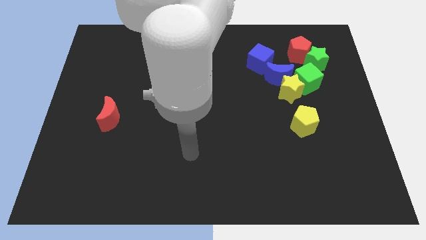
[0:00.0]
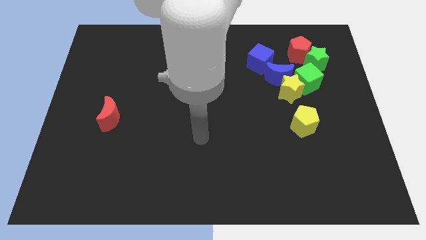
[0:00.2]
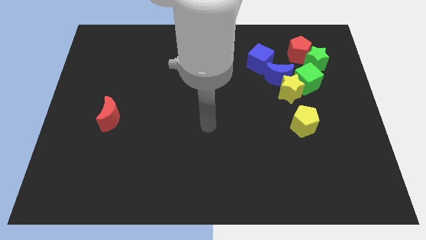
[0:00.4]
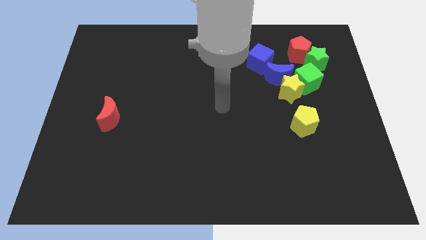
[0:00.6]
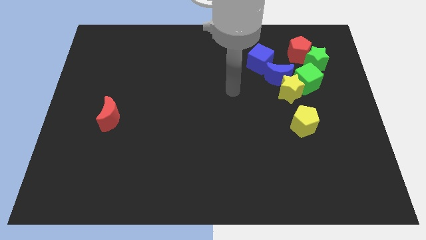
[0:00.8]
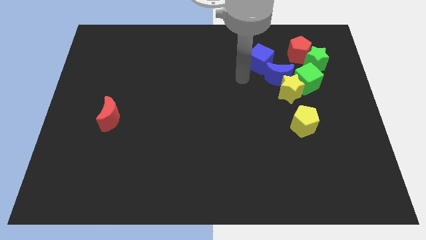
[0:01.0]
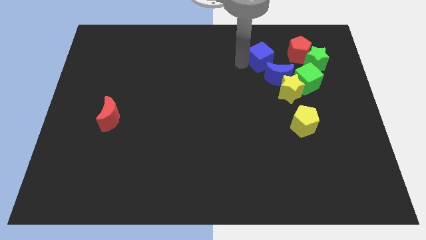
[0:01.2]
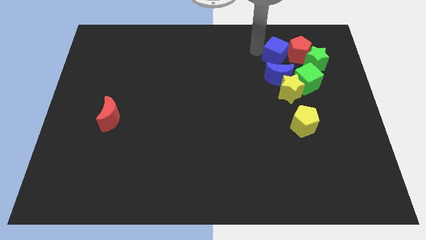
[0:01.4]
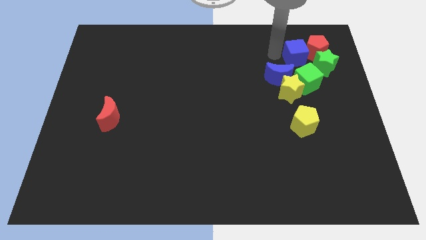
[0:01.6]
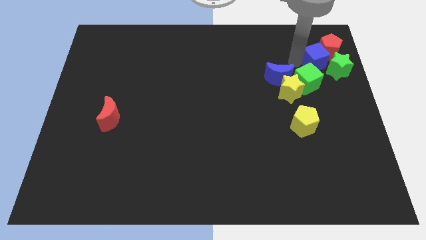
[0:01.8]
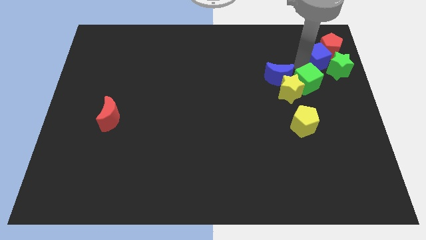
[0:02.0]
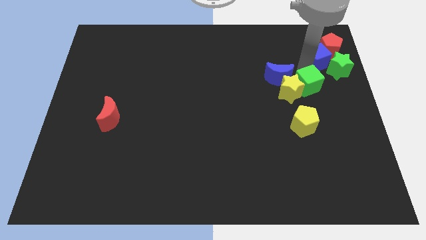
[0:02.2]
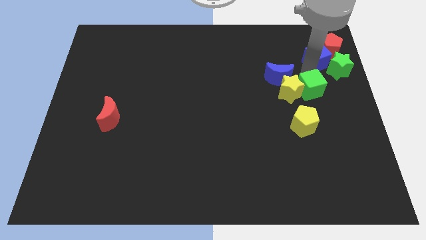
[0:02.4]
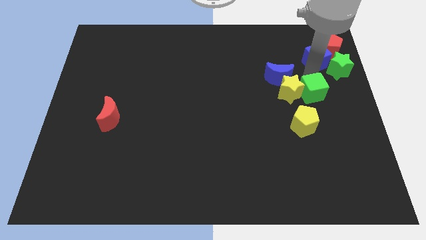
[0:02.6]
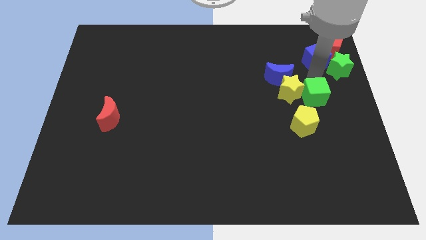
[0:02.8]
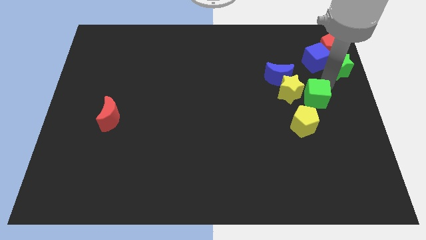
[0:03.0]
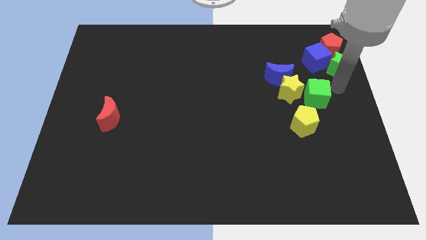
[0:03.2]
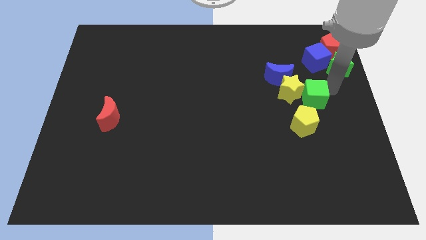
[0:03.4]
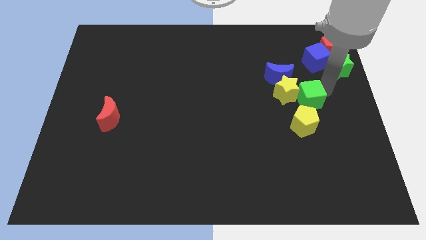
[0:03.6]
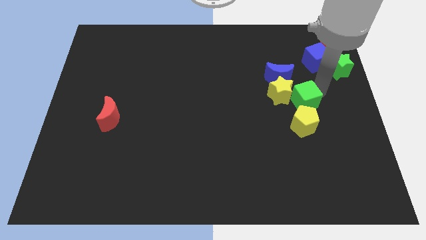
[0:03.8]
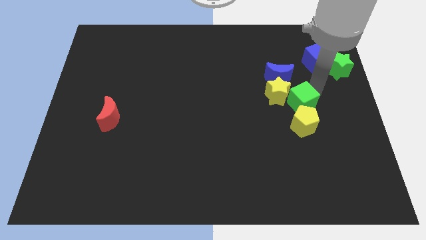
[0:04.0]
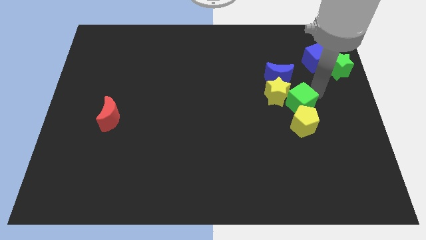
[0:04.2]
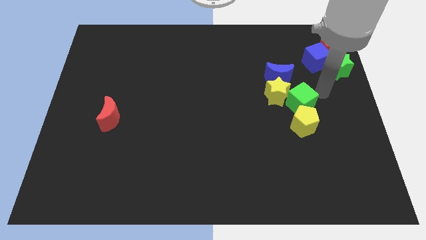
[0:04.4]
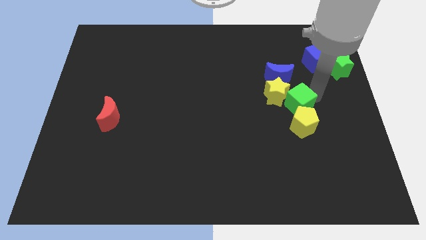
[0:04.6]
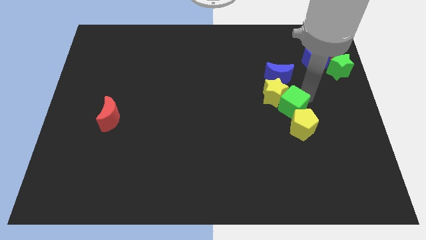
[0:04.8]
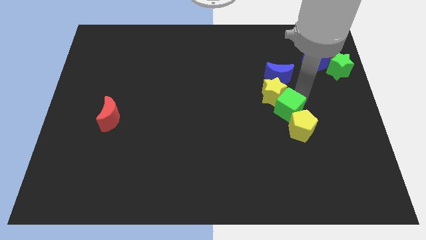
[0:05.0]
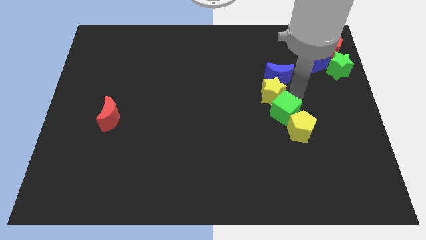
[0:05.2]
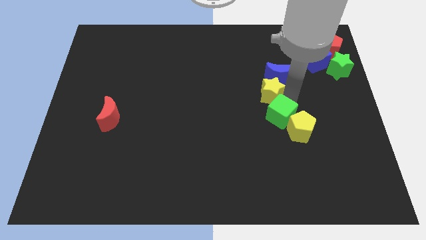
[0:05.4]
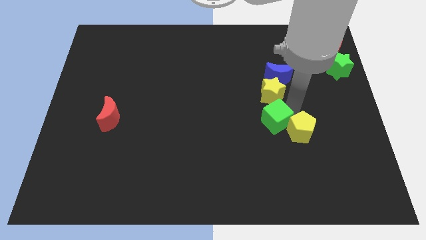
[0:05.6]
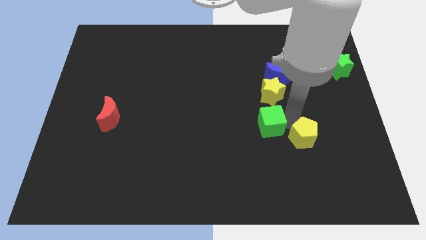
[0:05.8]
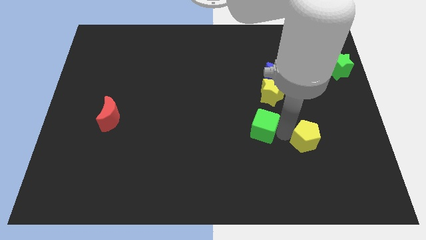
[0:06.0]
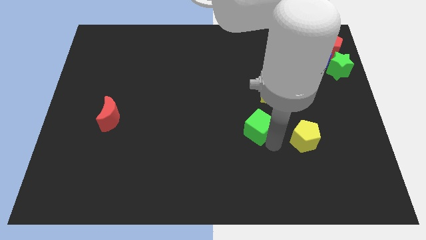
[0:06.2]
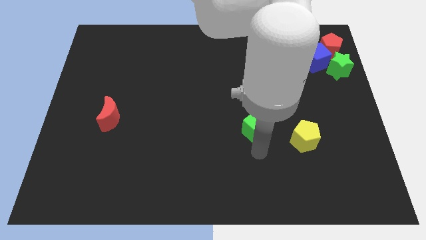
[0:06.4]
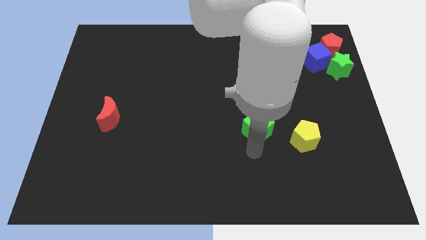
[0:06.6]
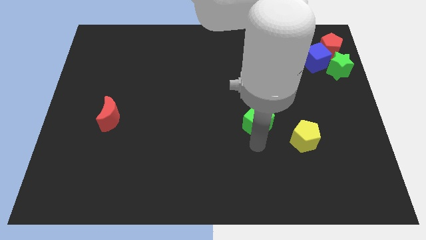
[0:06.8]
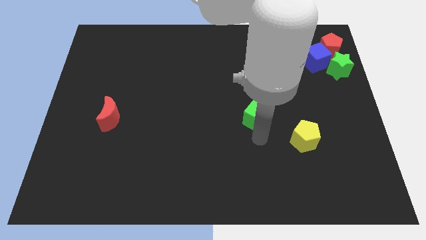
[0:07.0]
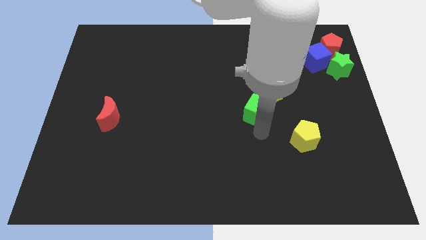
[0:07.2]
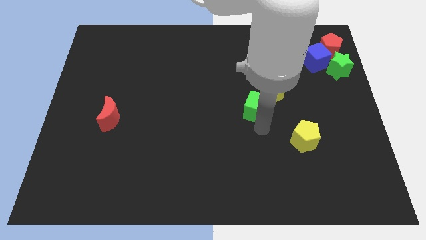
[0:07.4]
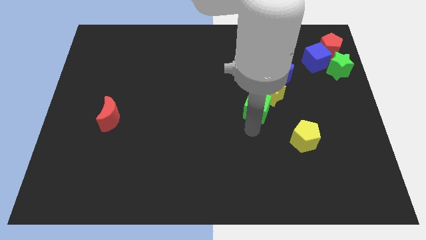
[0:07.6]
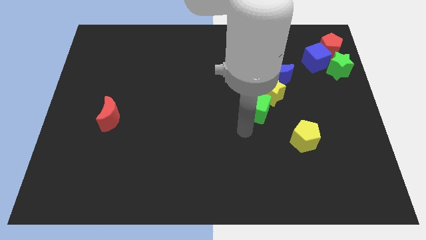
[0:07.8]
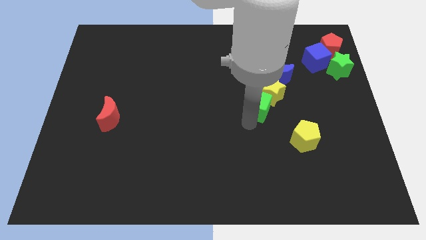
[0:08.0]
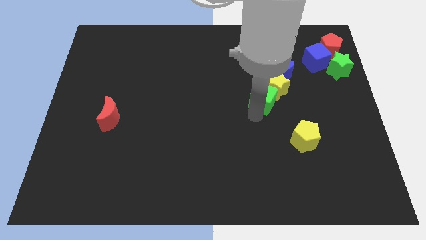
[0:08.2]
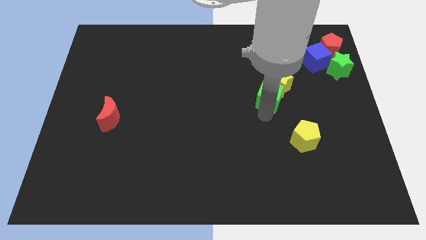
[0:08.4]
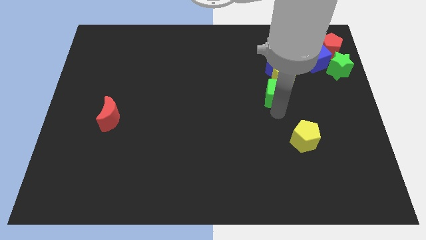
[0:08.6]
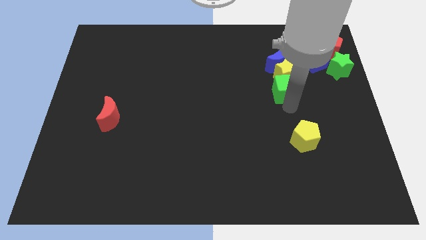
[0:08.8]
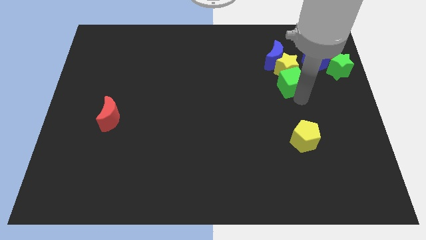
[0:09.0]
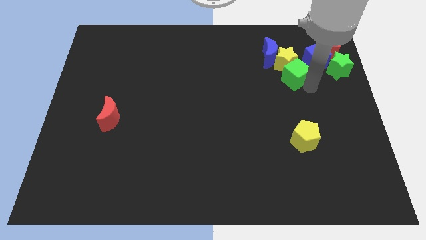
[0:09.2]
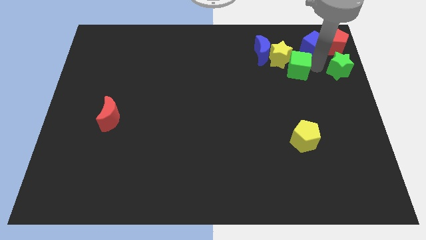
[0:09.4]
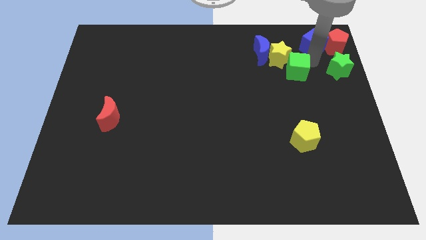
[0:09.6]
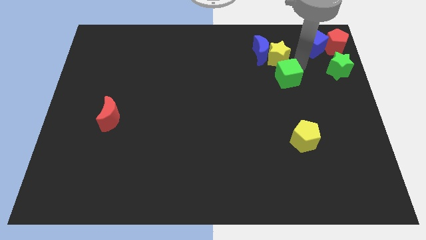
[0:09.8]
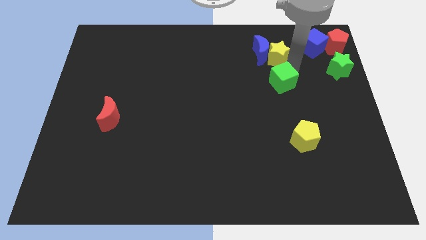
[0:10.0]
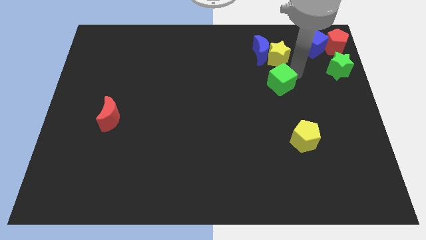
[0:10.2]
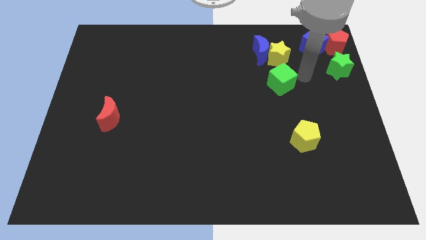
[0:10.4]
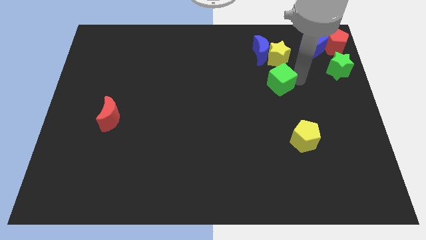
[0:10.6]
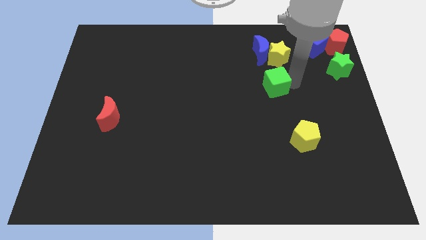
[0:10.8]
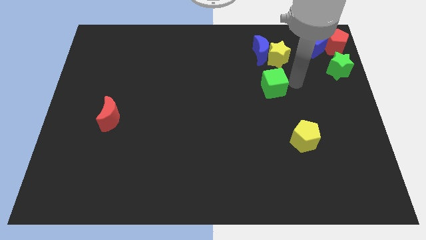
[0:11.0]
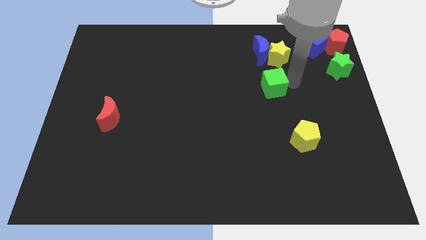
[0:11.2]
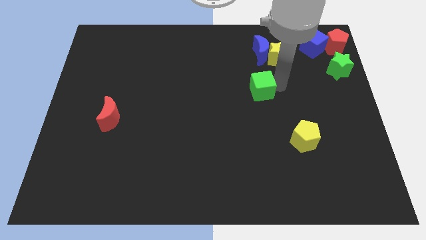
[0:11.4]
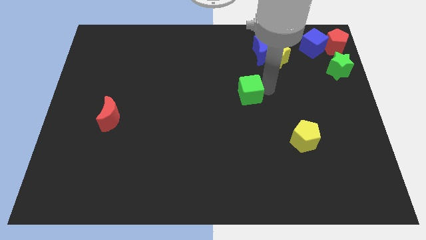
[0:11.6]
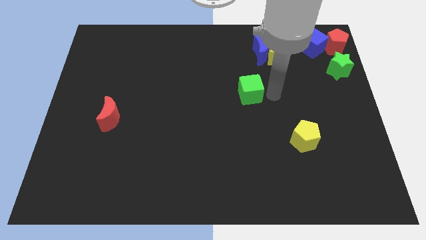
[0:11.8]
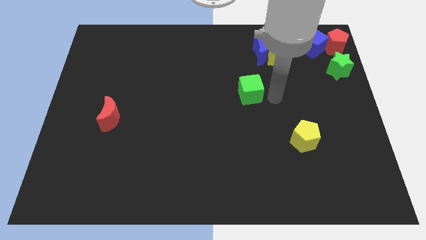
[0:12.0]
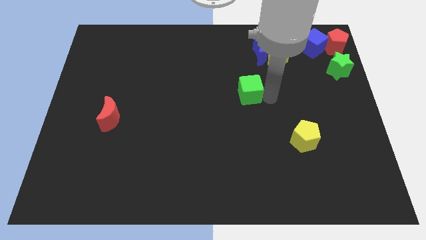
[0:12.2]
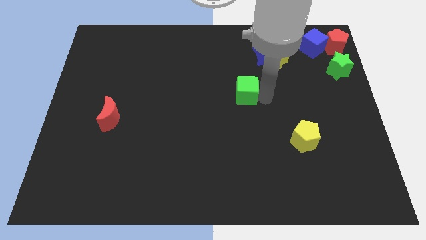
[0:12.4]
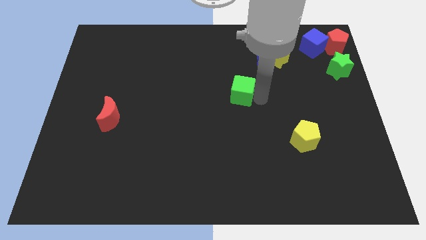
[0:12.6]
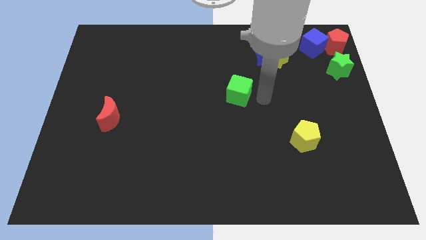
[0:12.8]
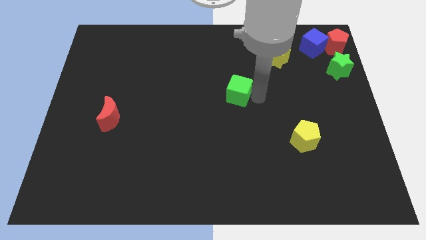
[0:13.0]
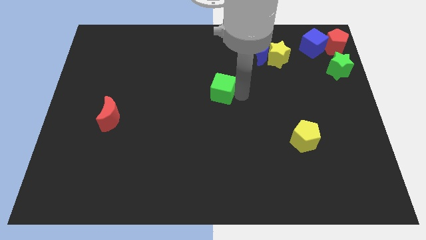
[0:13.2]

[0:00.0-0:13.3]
move the green cube to the left

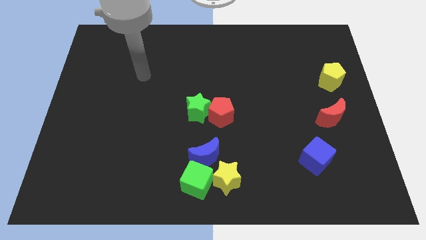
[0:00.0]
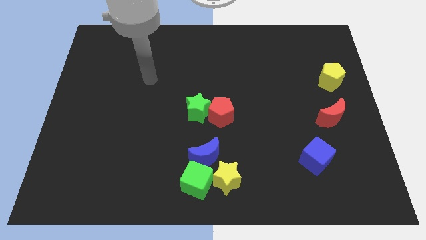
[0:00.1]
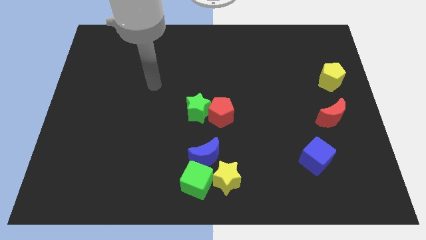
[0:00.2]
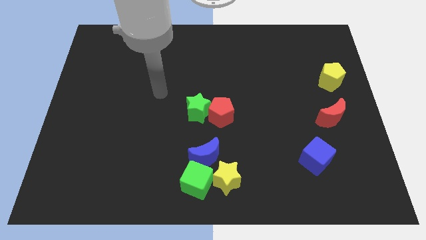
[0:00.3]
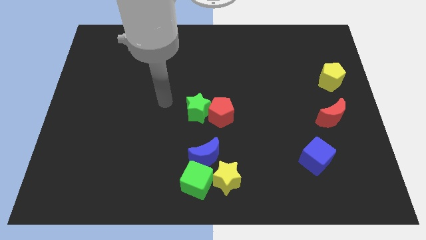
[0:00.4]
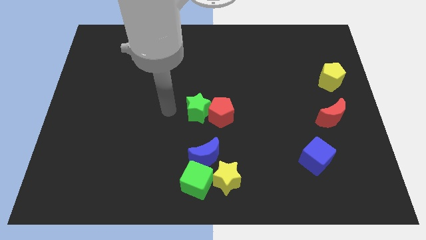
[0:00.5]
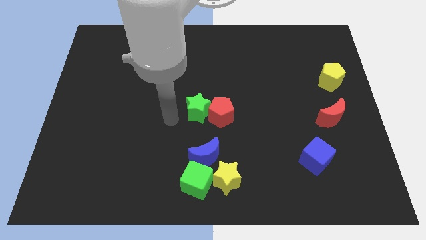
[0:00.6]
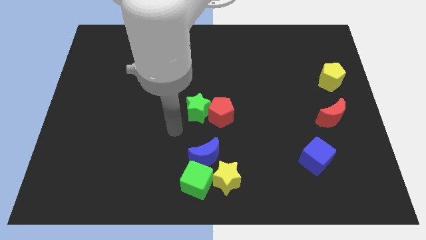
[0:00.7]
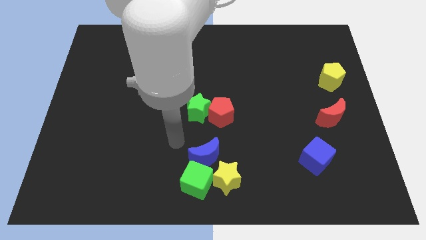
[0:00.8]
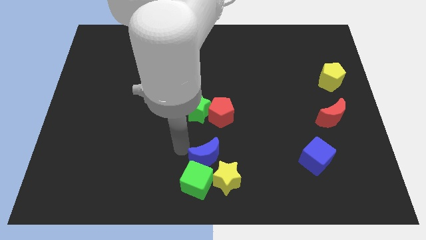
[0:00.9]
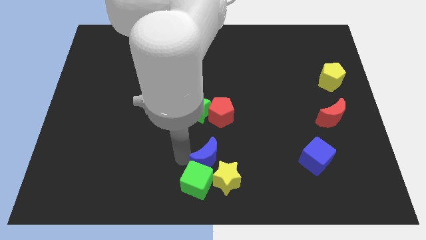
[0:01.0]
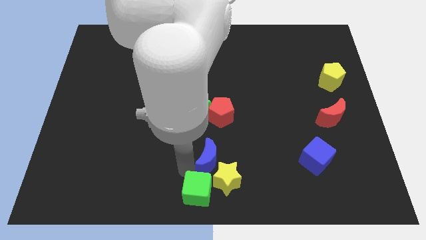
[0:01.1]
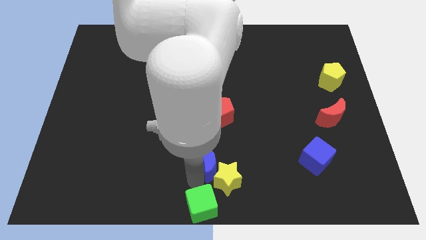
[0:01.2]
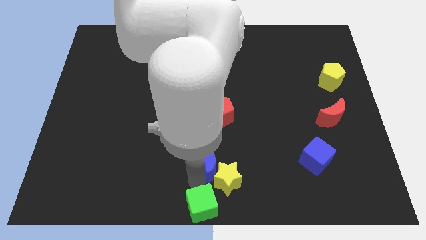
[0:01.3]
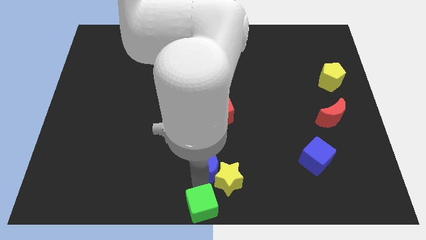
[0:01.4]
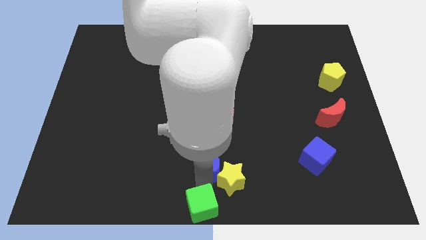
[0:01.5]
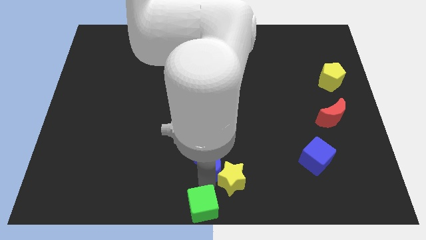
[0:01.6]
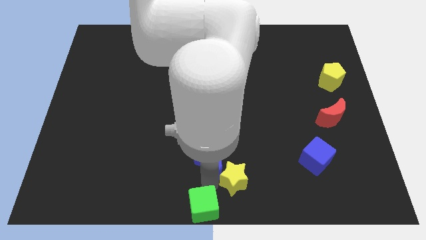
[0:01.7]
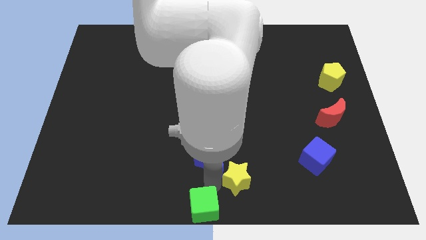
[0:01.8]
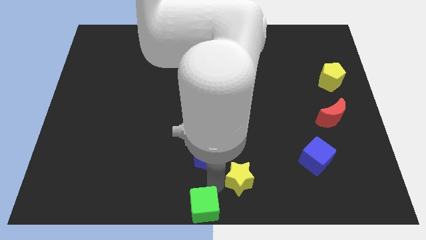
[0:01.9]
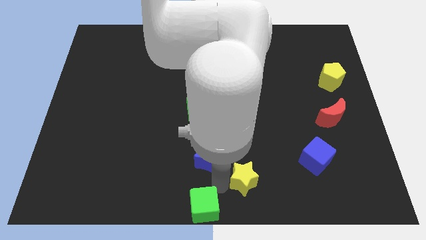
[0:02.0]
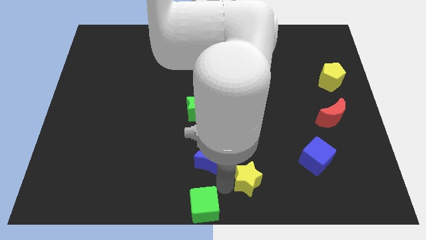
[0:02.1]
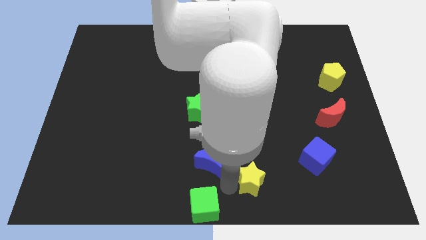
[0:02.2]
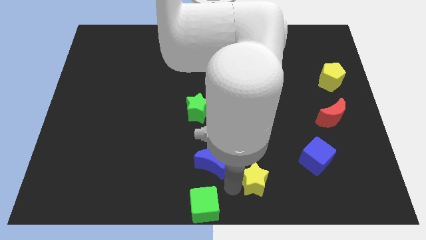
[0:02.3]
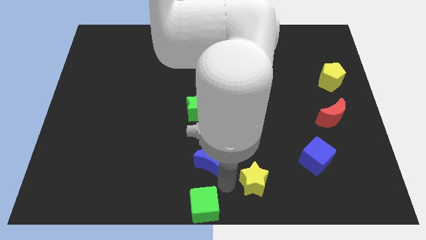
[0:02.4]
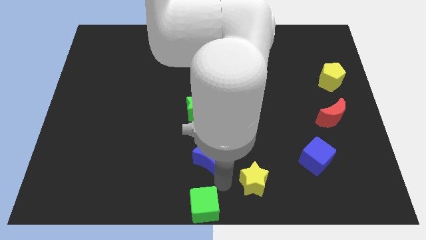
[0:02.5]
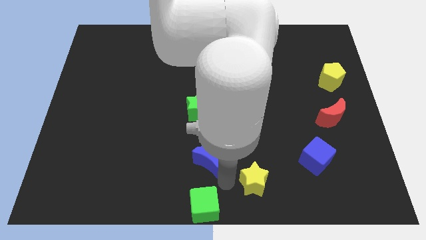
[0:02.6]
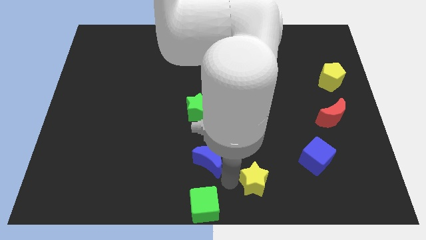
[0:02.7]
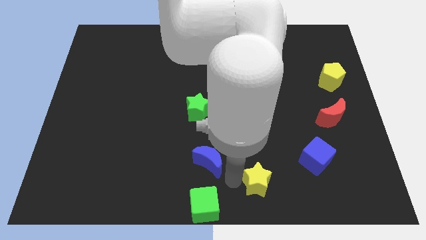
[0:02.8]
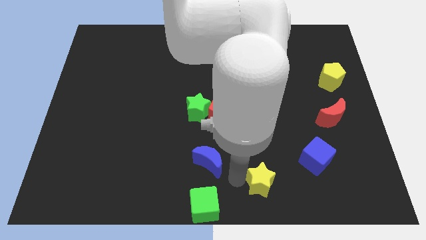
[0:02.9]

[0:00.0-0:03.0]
slightly move the yellow star right
